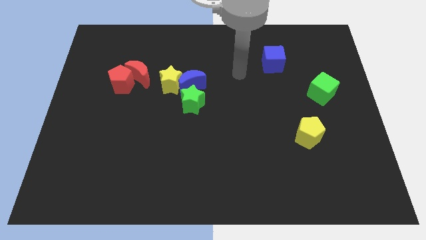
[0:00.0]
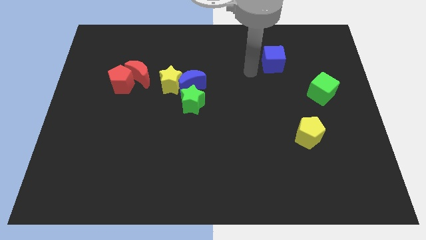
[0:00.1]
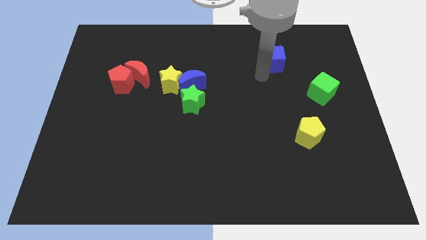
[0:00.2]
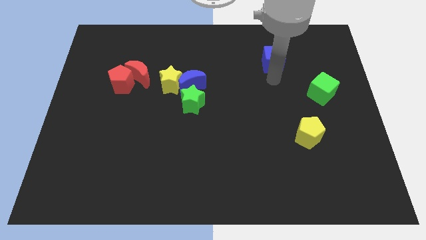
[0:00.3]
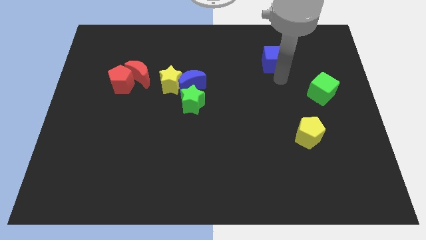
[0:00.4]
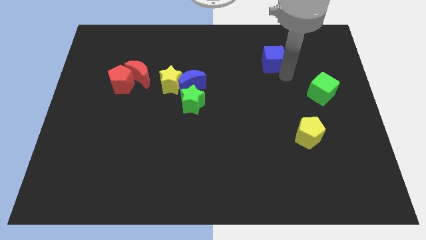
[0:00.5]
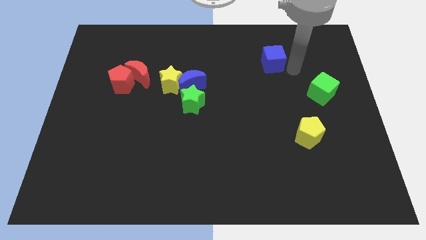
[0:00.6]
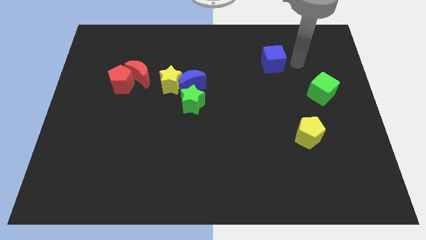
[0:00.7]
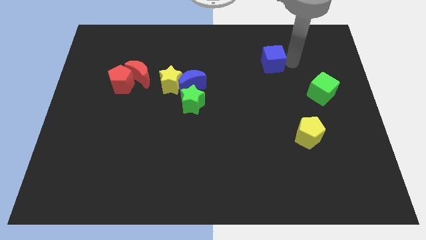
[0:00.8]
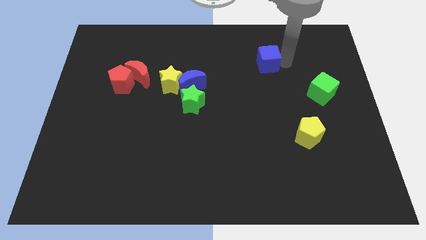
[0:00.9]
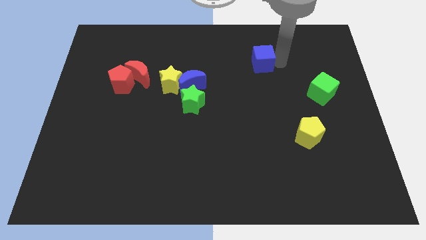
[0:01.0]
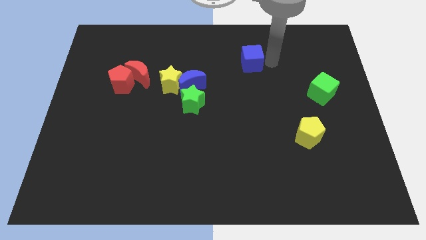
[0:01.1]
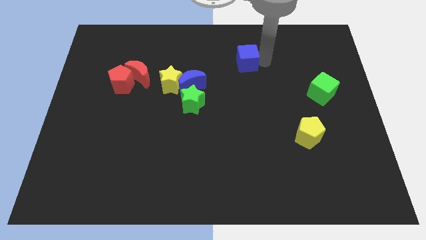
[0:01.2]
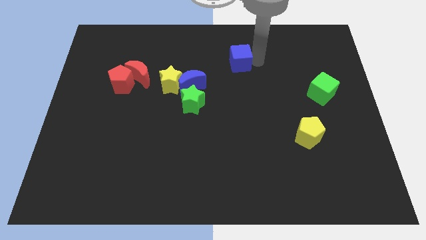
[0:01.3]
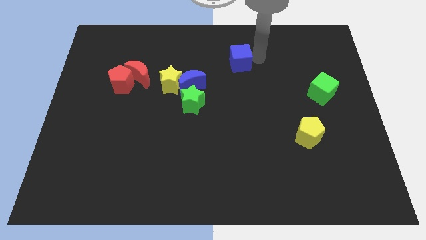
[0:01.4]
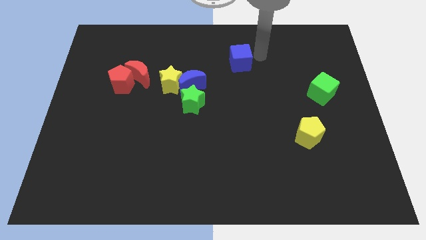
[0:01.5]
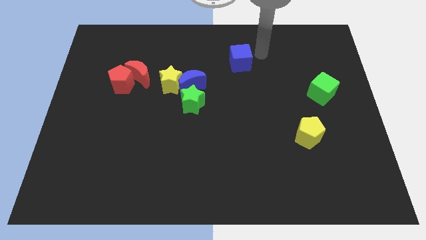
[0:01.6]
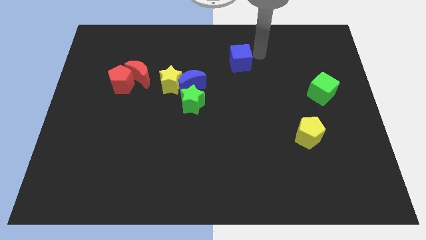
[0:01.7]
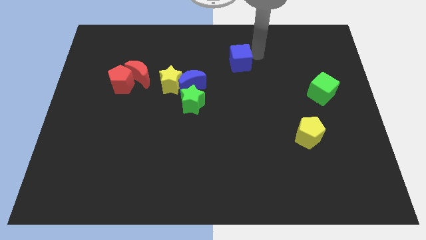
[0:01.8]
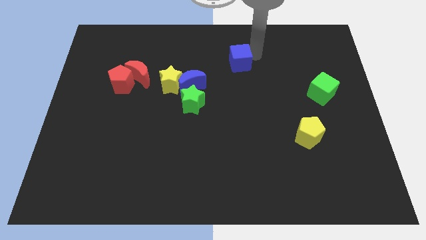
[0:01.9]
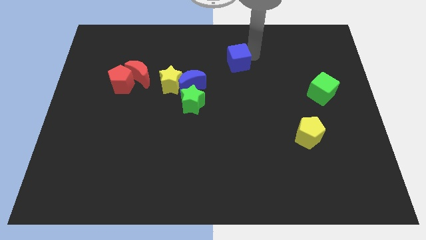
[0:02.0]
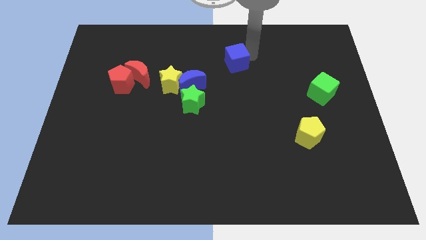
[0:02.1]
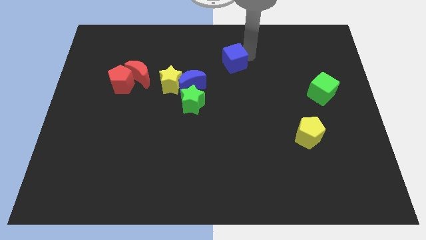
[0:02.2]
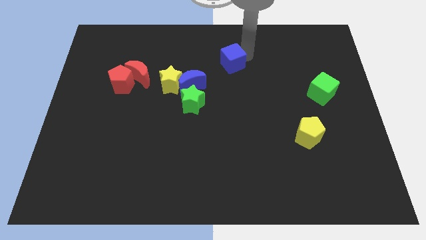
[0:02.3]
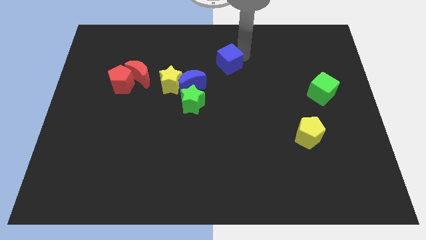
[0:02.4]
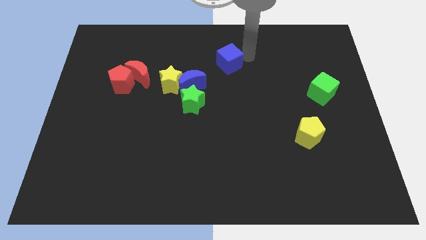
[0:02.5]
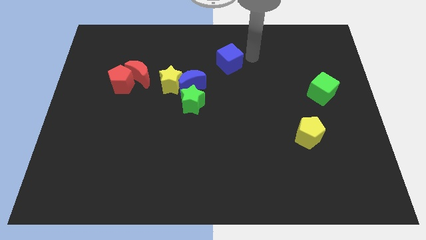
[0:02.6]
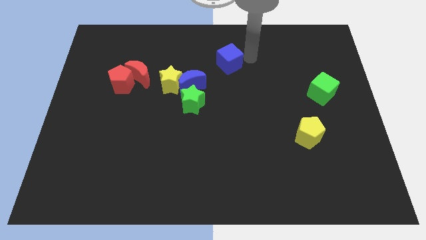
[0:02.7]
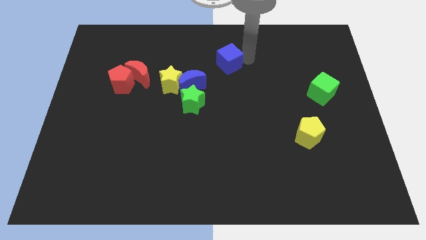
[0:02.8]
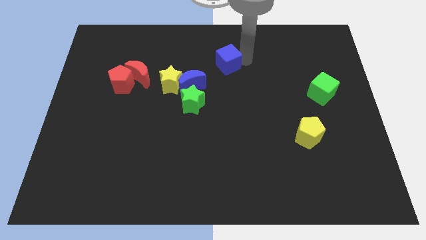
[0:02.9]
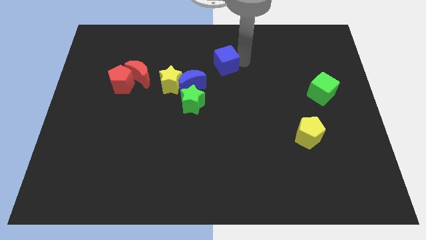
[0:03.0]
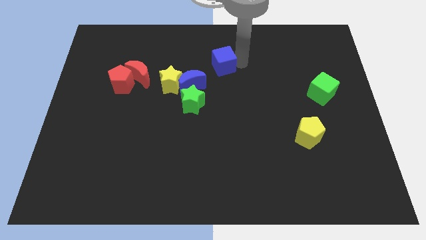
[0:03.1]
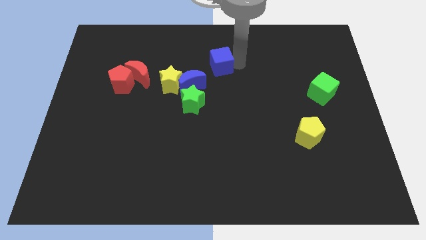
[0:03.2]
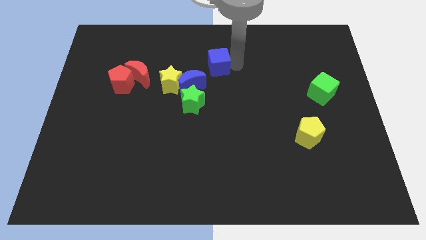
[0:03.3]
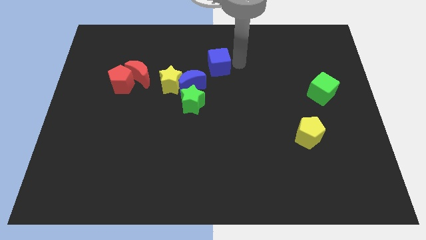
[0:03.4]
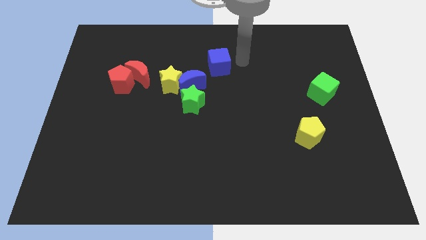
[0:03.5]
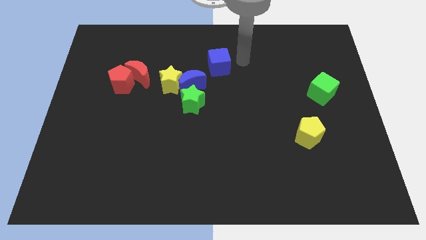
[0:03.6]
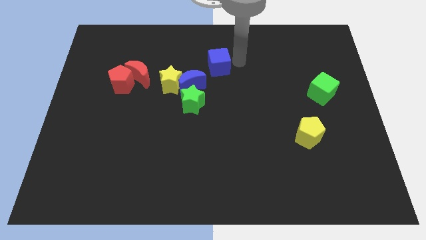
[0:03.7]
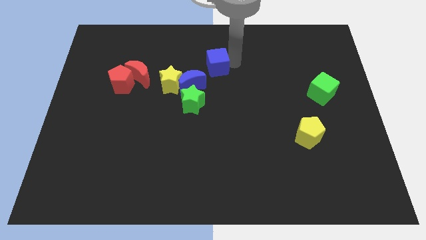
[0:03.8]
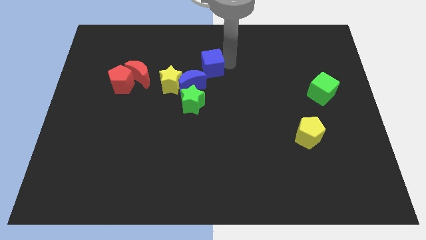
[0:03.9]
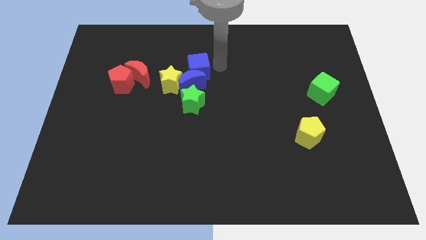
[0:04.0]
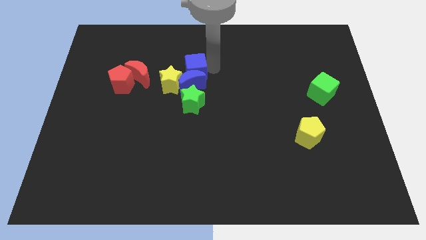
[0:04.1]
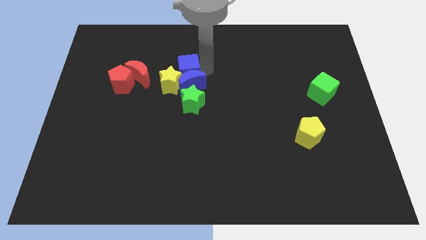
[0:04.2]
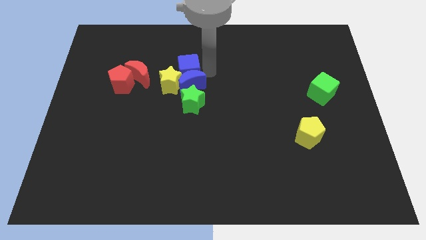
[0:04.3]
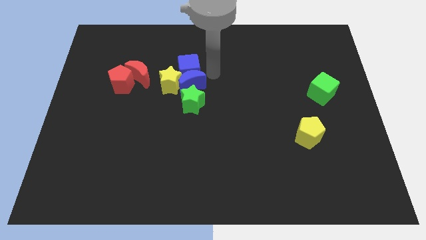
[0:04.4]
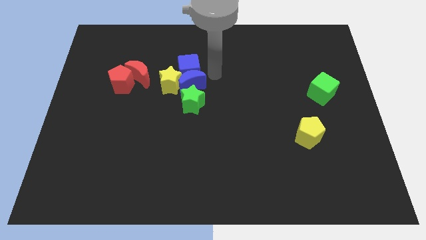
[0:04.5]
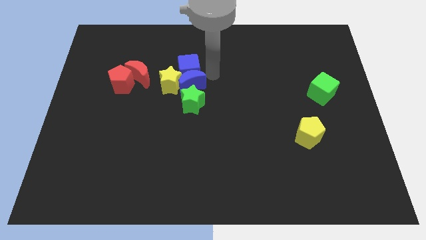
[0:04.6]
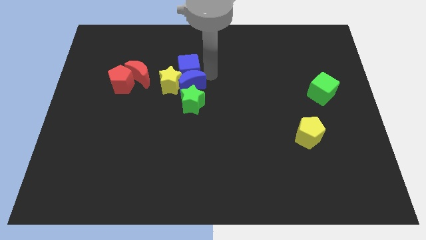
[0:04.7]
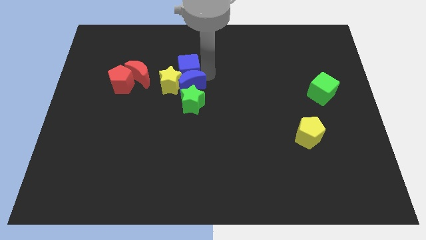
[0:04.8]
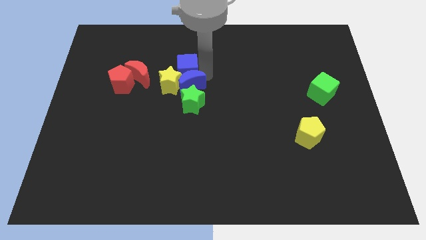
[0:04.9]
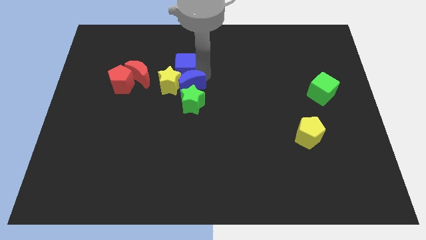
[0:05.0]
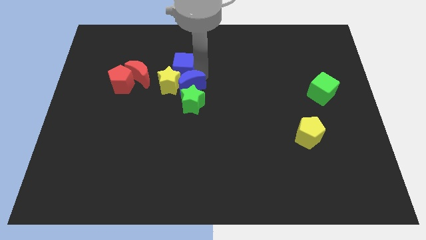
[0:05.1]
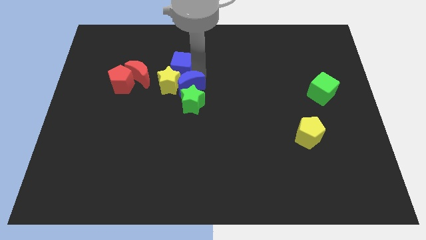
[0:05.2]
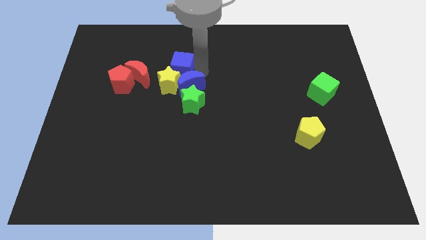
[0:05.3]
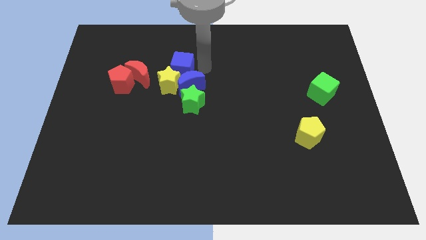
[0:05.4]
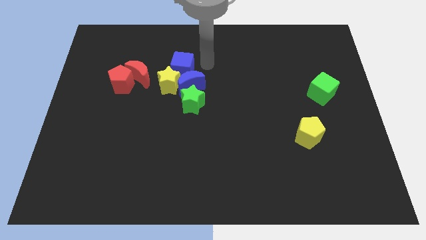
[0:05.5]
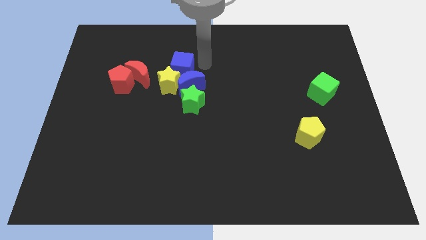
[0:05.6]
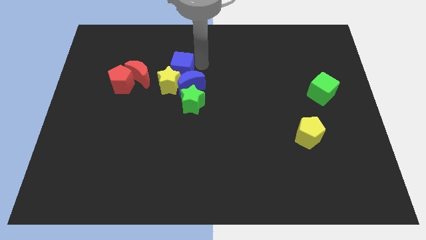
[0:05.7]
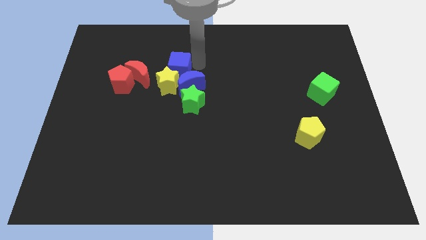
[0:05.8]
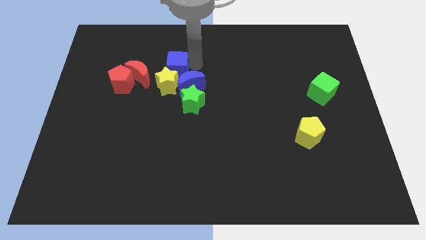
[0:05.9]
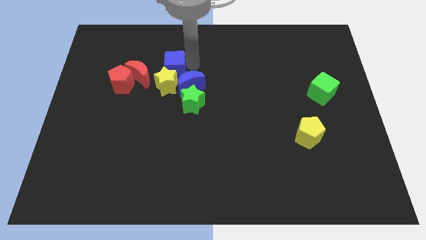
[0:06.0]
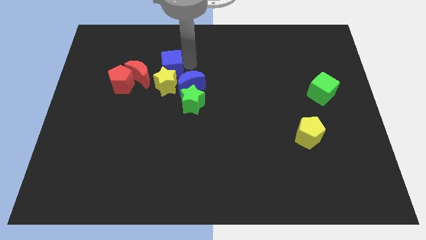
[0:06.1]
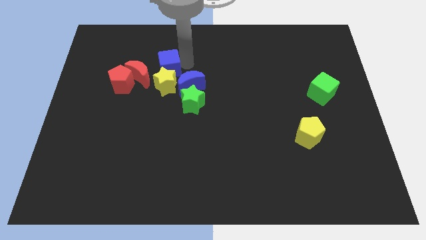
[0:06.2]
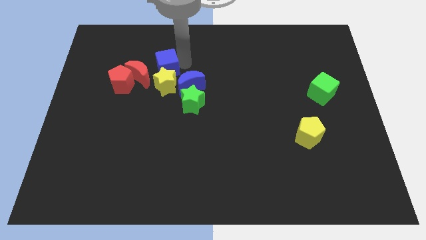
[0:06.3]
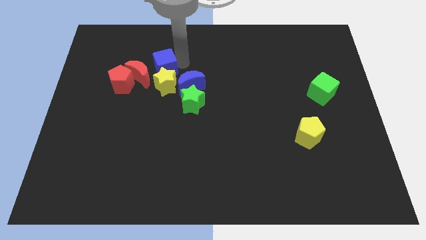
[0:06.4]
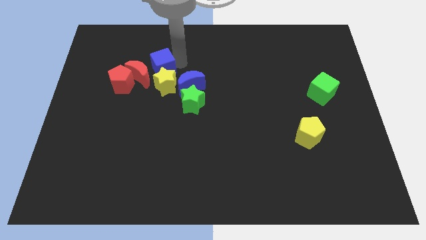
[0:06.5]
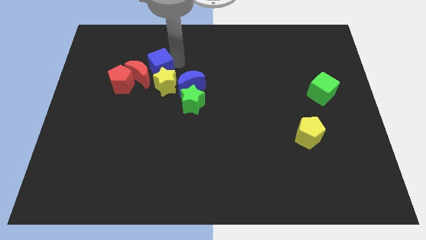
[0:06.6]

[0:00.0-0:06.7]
slide the blue cube close to the red moon

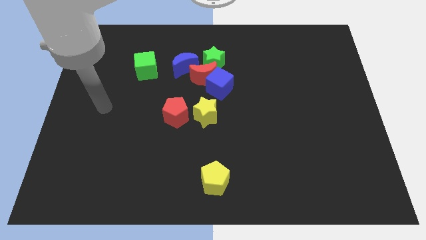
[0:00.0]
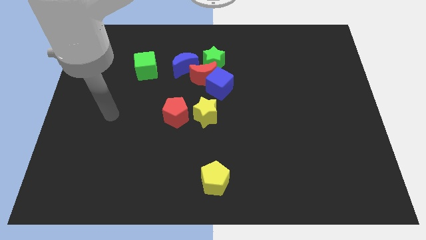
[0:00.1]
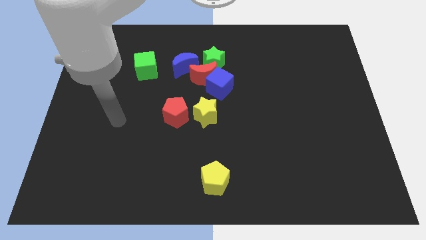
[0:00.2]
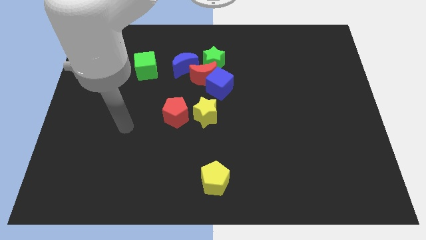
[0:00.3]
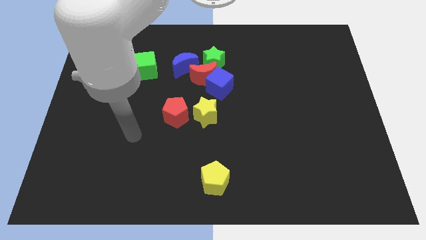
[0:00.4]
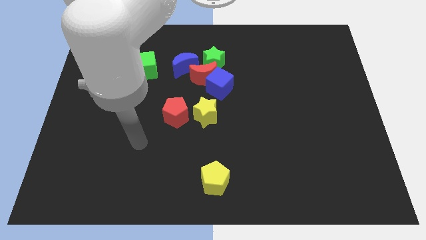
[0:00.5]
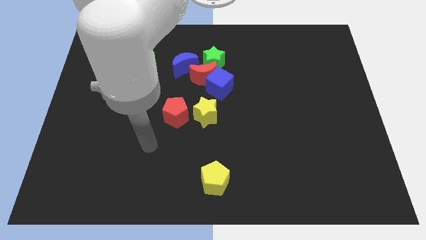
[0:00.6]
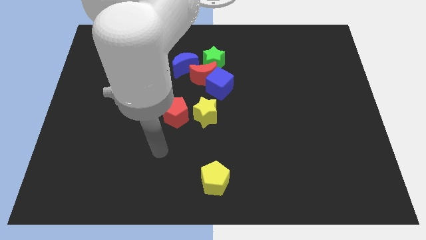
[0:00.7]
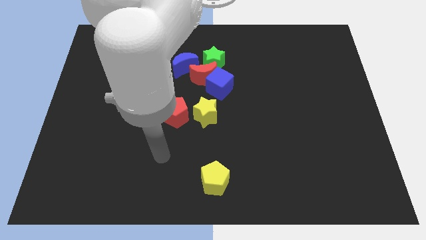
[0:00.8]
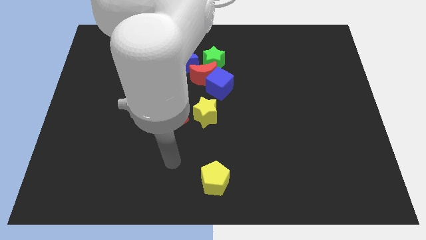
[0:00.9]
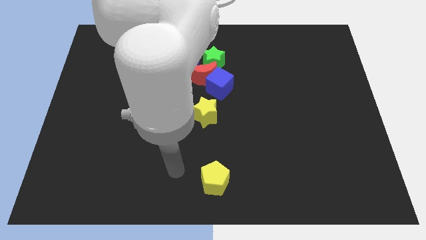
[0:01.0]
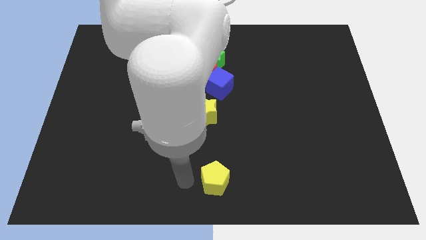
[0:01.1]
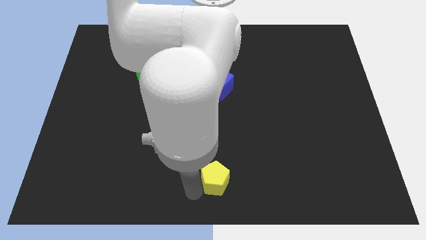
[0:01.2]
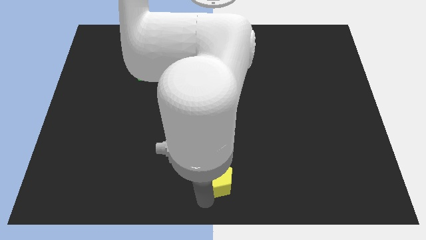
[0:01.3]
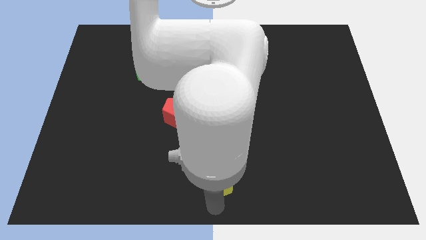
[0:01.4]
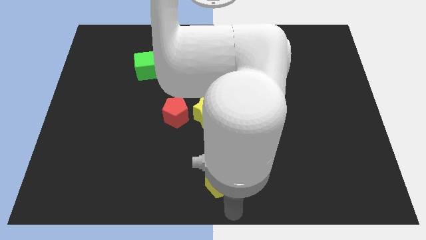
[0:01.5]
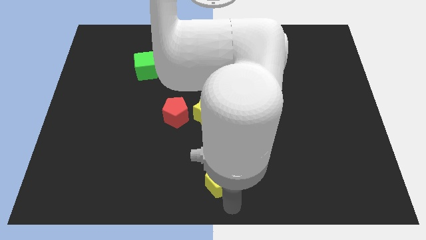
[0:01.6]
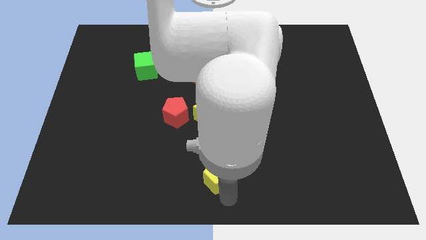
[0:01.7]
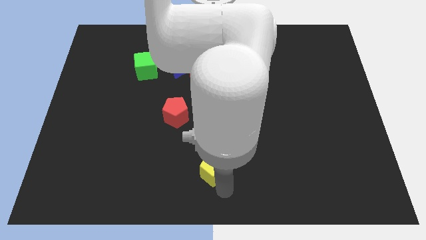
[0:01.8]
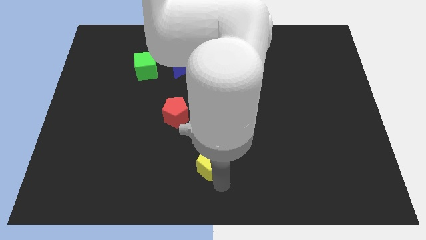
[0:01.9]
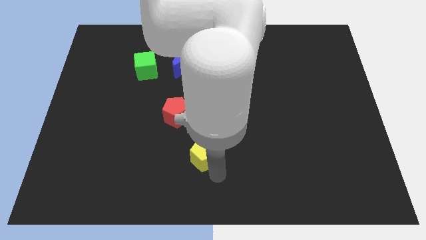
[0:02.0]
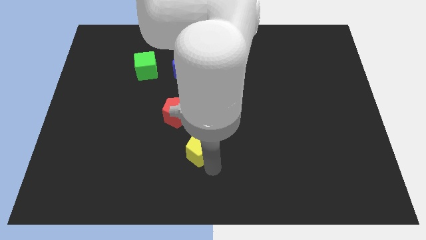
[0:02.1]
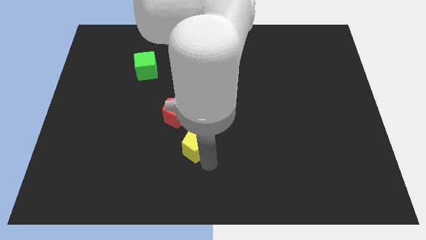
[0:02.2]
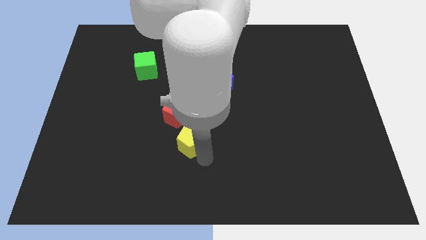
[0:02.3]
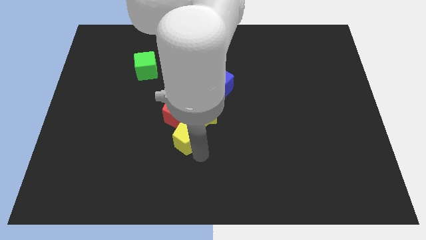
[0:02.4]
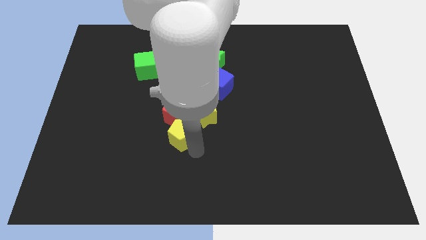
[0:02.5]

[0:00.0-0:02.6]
push the yellow pentagon close to the red pentagon
